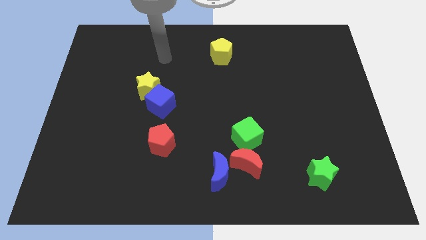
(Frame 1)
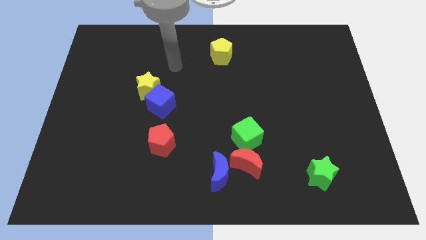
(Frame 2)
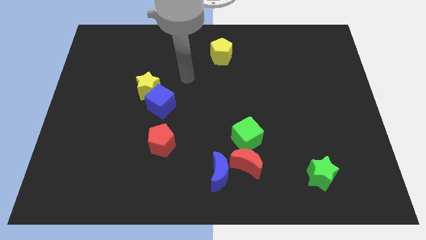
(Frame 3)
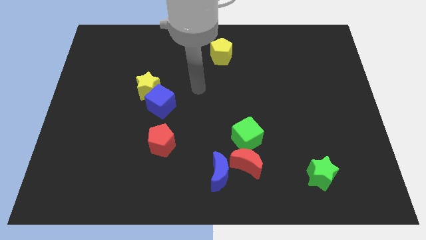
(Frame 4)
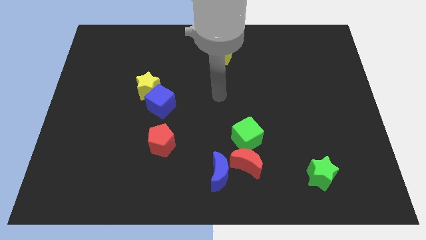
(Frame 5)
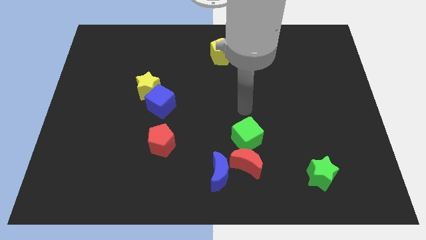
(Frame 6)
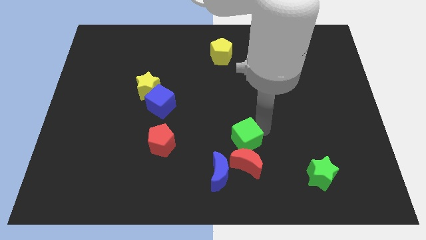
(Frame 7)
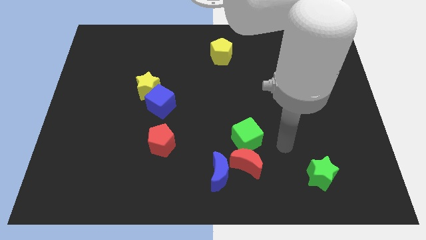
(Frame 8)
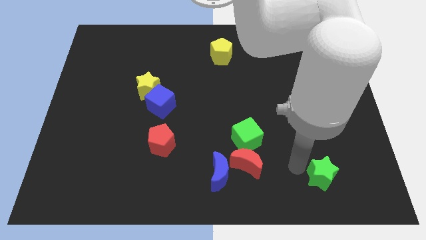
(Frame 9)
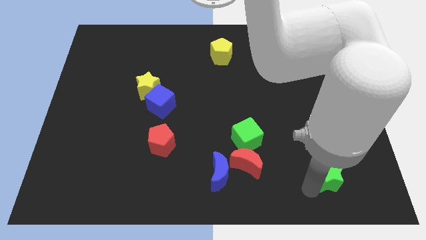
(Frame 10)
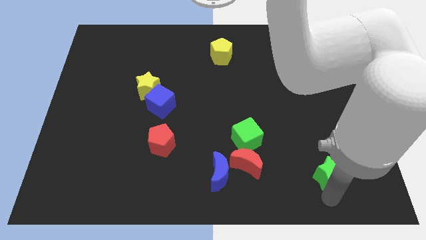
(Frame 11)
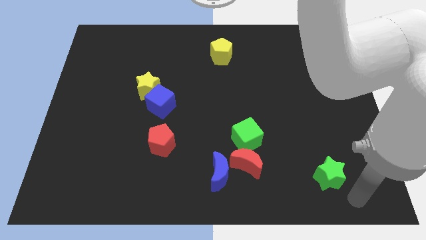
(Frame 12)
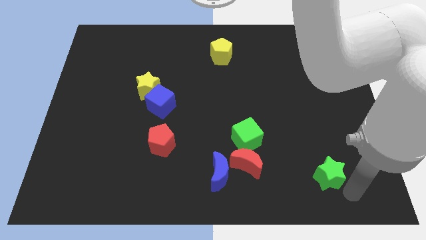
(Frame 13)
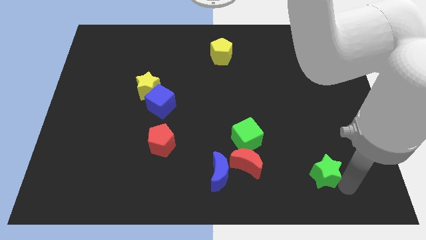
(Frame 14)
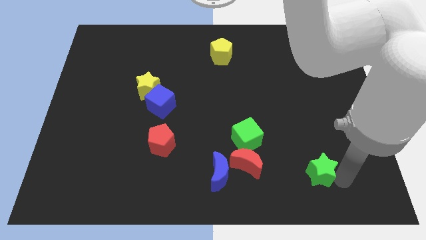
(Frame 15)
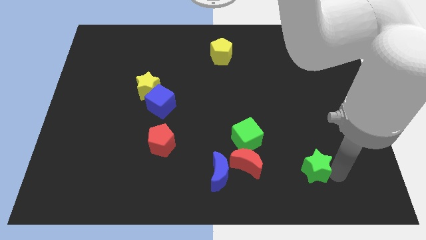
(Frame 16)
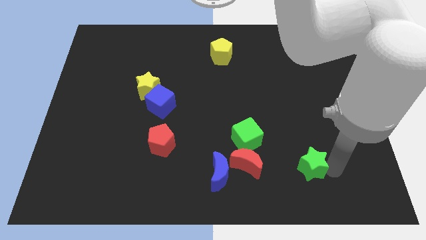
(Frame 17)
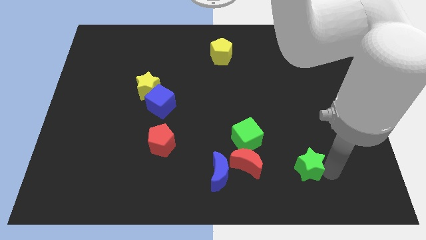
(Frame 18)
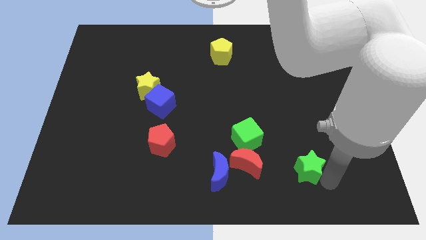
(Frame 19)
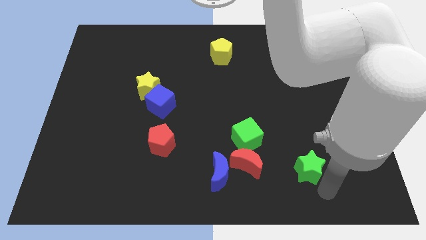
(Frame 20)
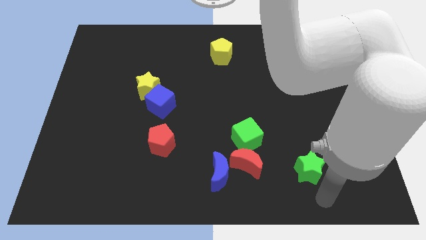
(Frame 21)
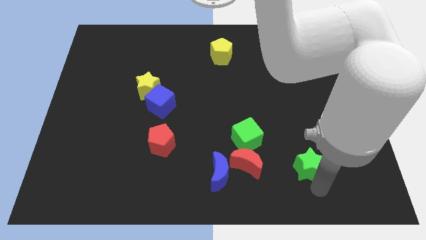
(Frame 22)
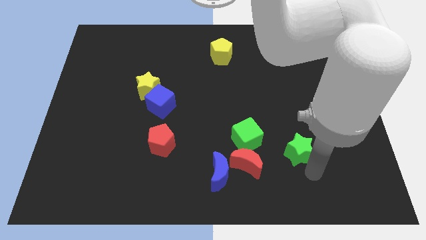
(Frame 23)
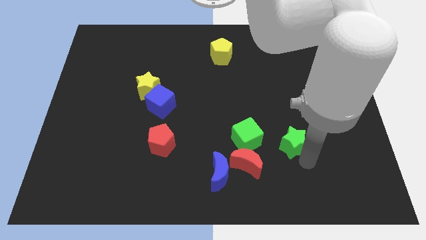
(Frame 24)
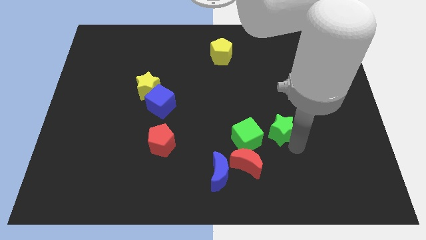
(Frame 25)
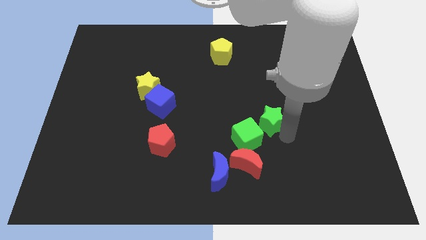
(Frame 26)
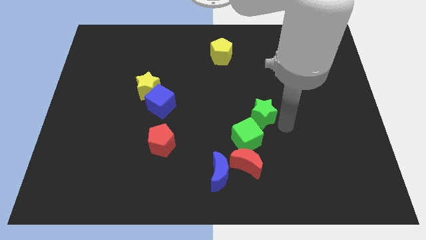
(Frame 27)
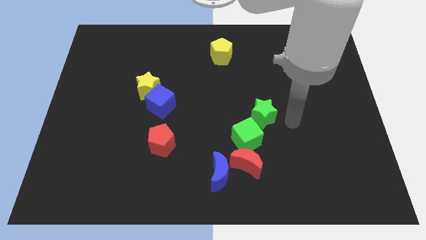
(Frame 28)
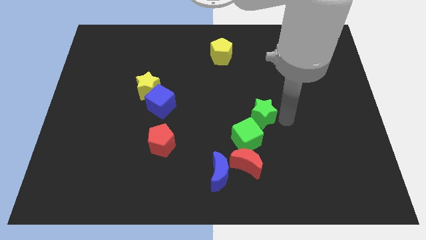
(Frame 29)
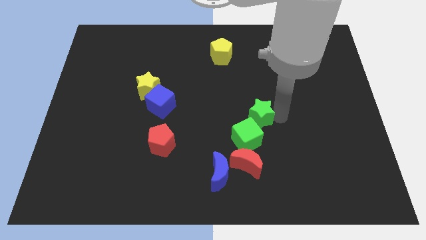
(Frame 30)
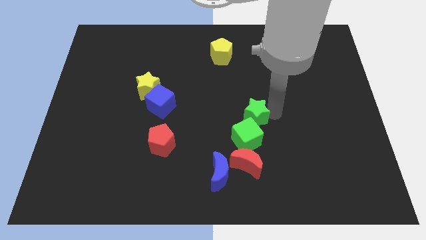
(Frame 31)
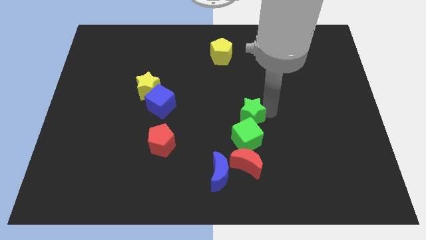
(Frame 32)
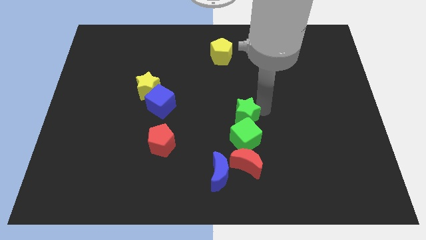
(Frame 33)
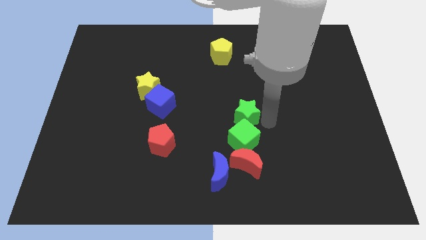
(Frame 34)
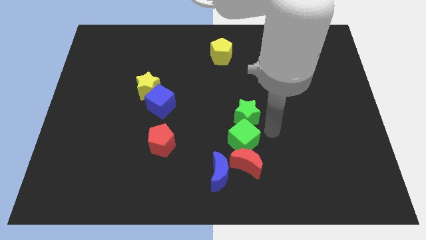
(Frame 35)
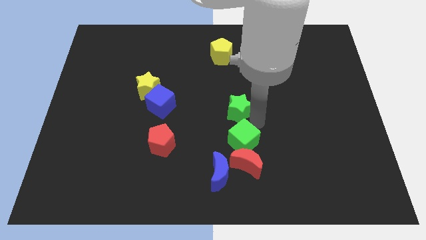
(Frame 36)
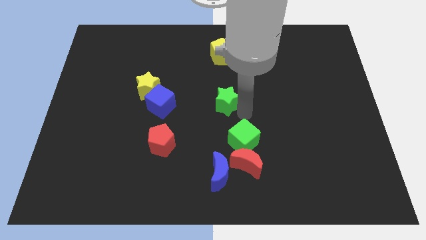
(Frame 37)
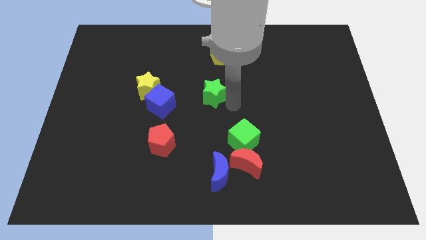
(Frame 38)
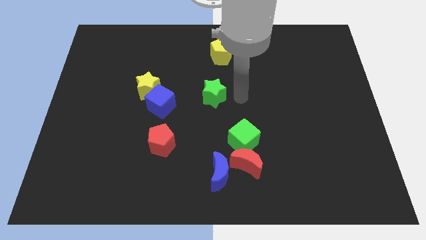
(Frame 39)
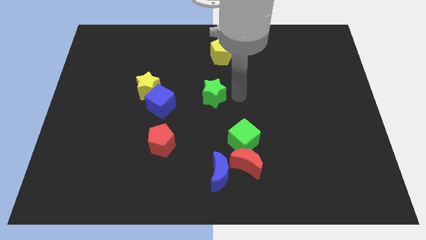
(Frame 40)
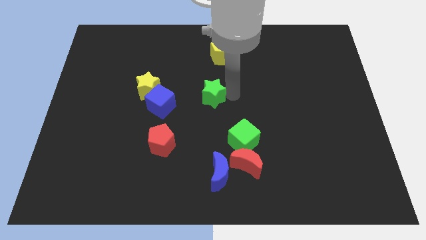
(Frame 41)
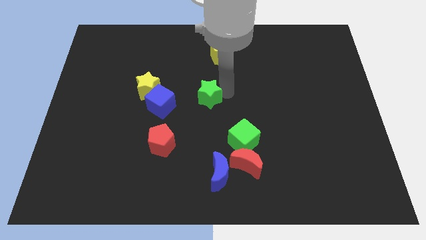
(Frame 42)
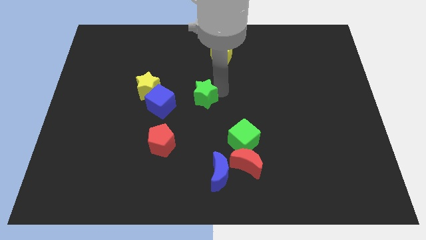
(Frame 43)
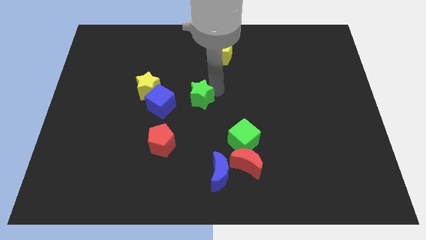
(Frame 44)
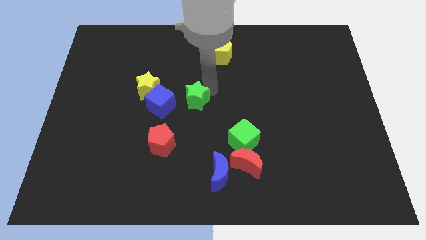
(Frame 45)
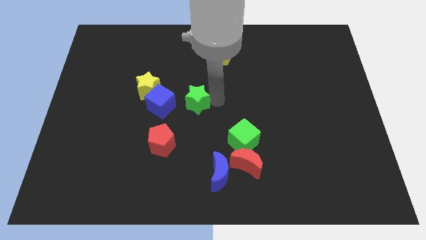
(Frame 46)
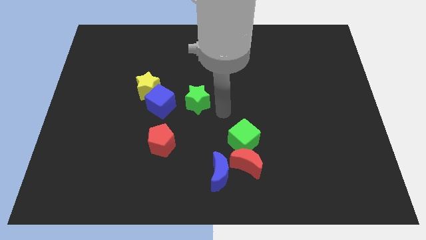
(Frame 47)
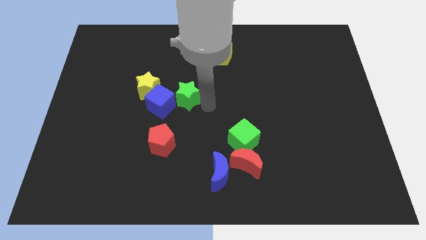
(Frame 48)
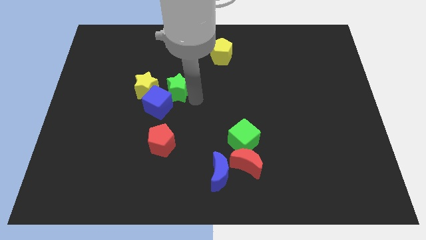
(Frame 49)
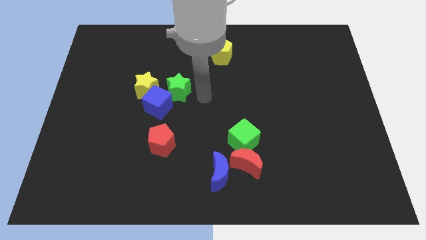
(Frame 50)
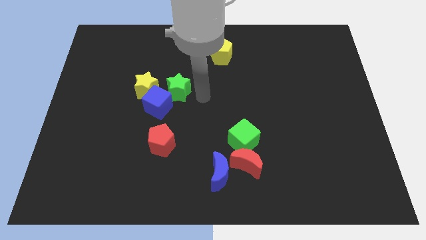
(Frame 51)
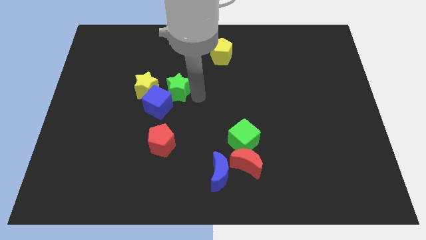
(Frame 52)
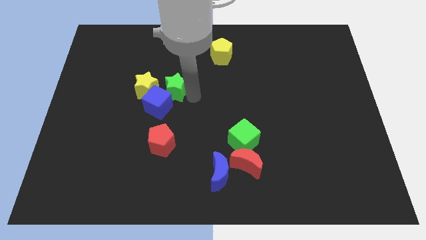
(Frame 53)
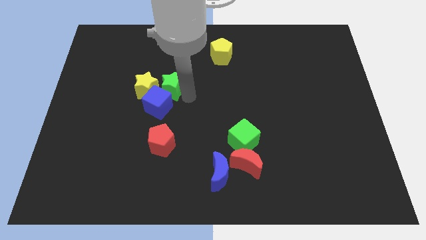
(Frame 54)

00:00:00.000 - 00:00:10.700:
move the green star close to the yellow star

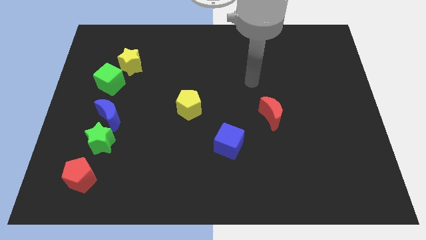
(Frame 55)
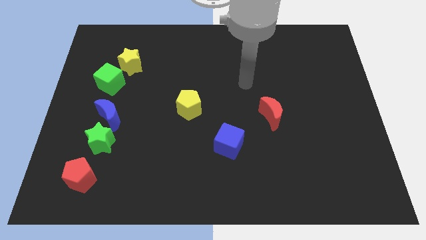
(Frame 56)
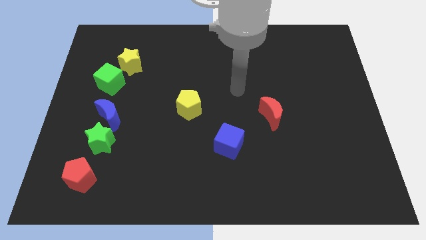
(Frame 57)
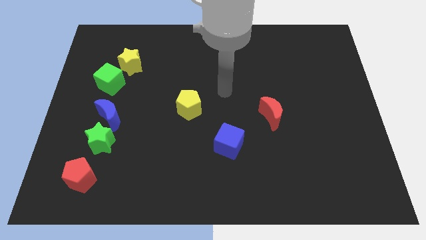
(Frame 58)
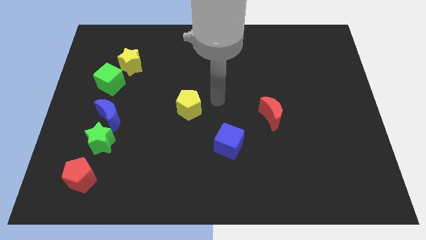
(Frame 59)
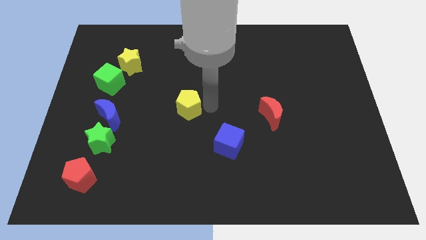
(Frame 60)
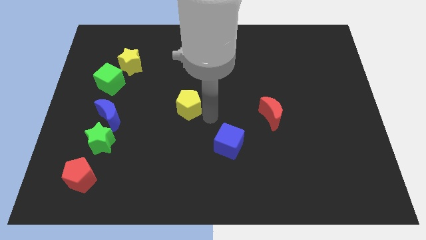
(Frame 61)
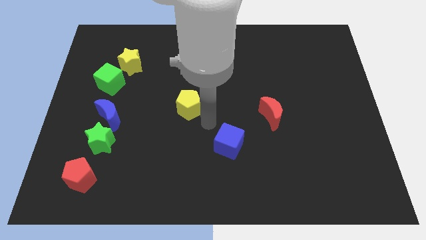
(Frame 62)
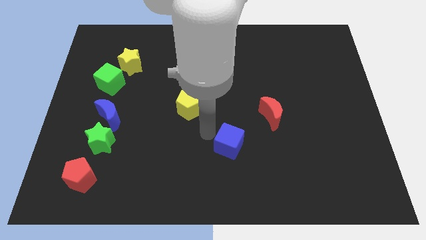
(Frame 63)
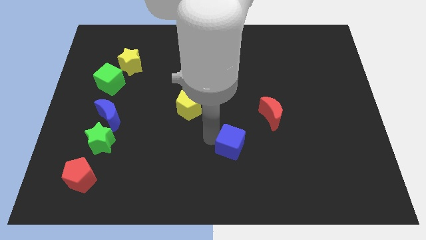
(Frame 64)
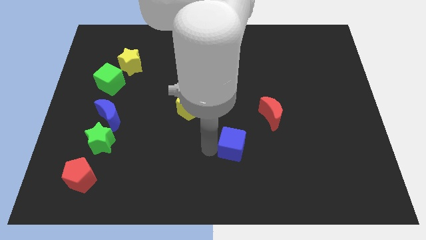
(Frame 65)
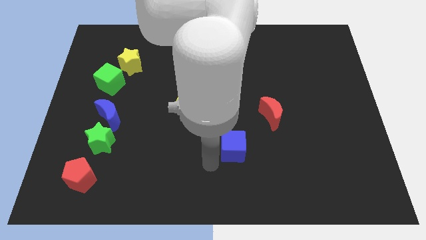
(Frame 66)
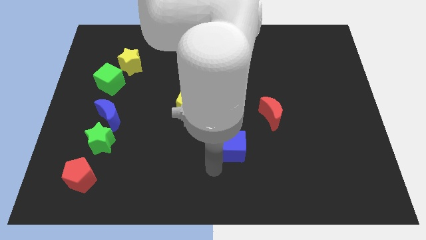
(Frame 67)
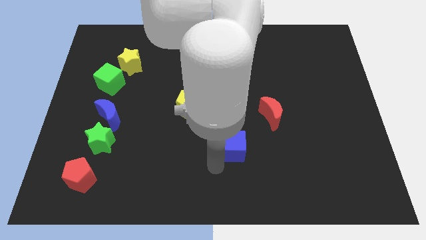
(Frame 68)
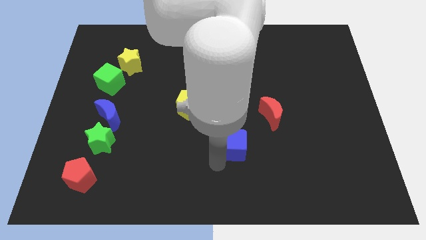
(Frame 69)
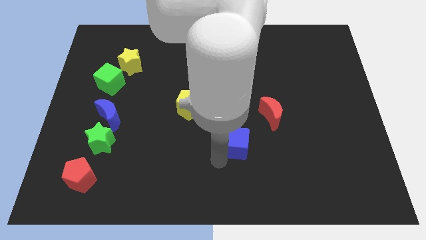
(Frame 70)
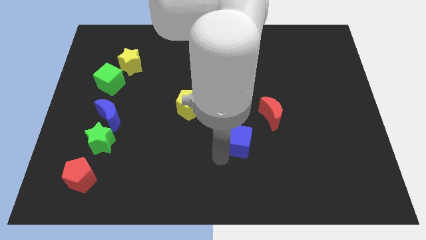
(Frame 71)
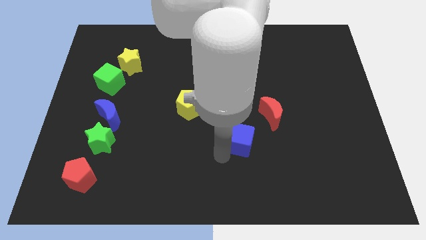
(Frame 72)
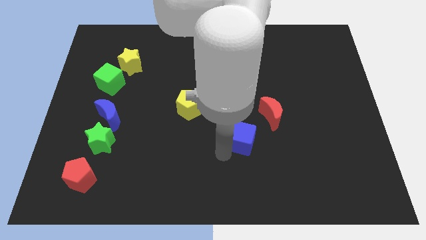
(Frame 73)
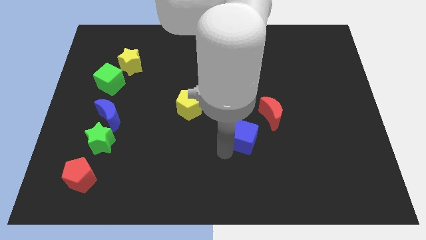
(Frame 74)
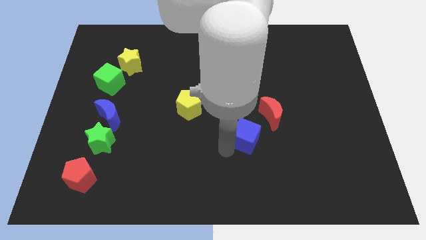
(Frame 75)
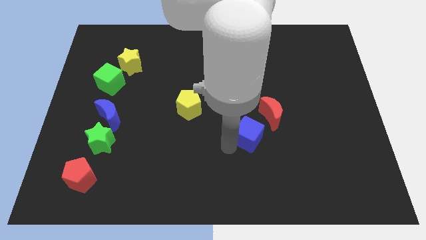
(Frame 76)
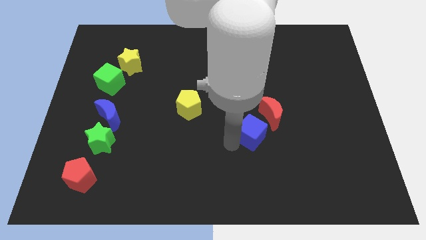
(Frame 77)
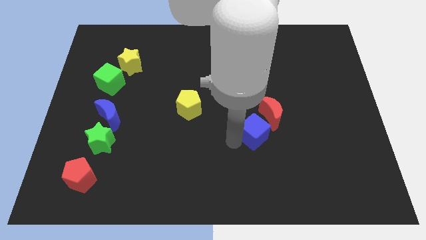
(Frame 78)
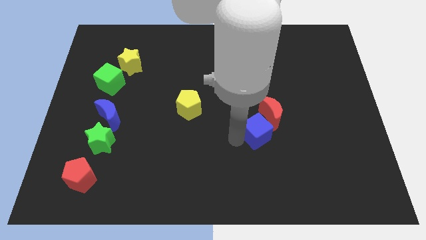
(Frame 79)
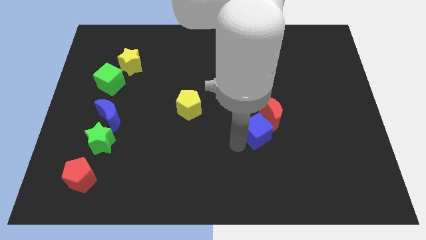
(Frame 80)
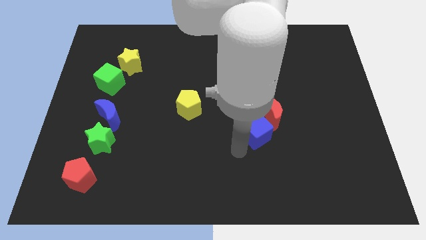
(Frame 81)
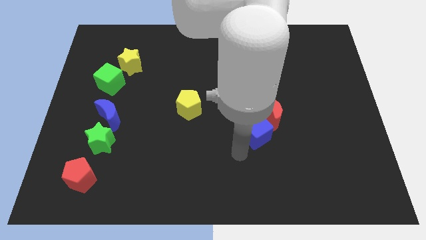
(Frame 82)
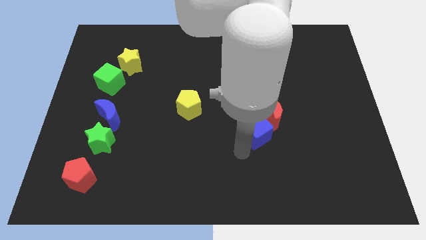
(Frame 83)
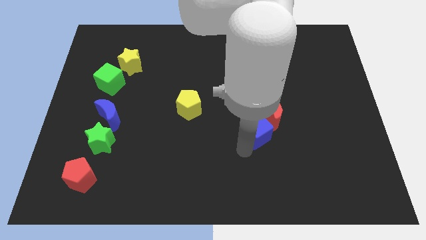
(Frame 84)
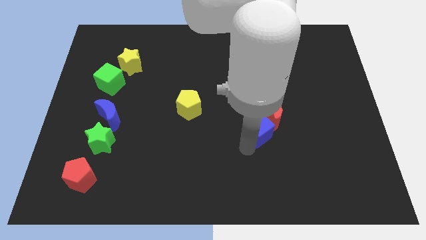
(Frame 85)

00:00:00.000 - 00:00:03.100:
slide the blue cube next to the red moon
